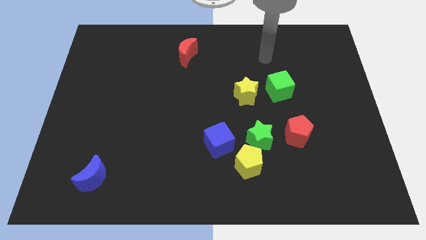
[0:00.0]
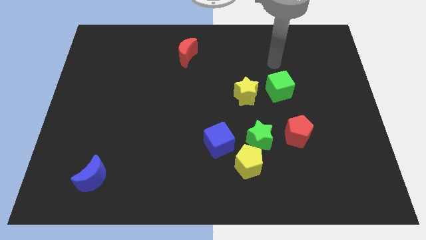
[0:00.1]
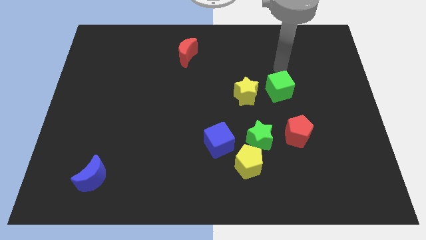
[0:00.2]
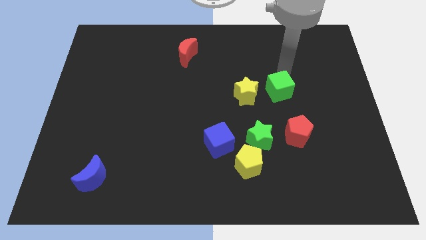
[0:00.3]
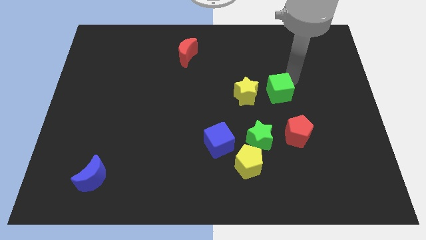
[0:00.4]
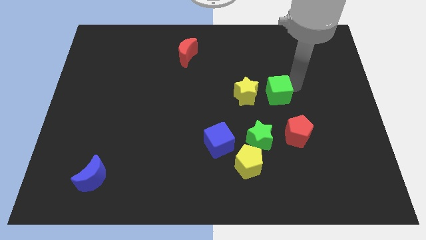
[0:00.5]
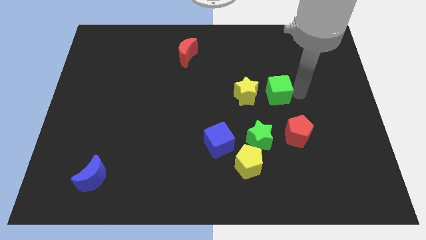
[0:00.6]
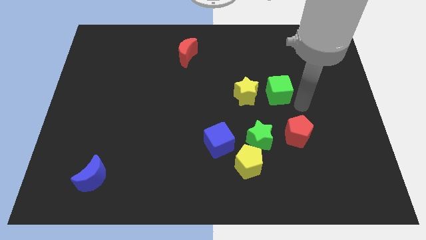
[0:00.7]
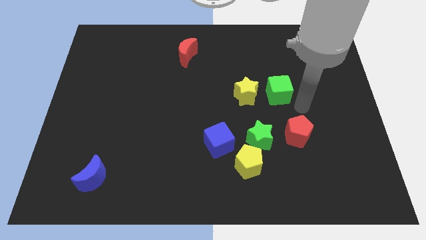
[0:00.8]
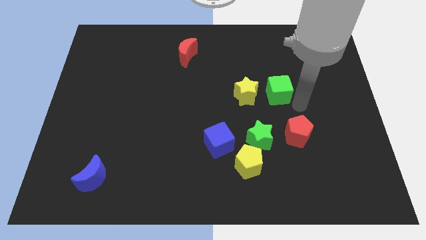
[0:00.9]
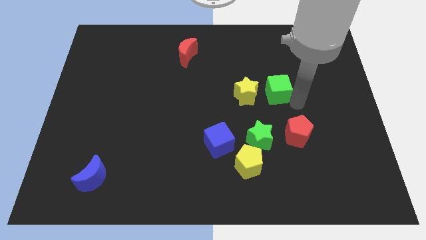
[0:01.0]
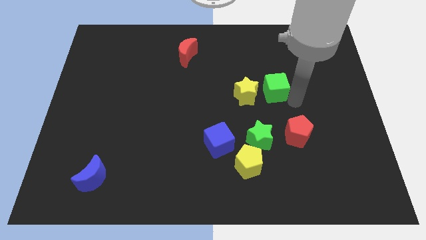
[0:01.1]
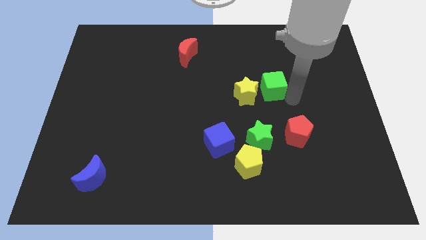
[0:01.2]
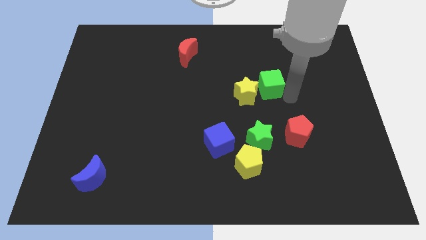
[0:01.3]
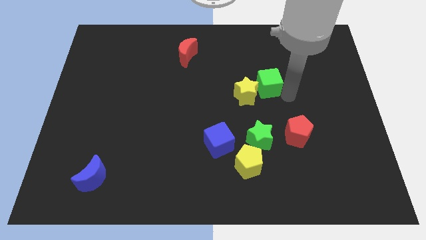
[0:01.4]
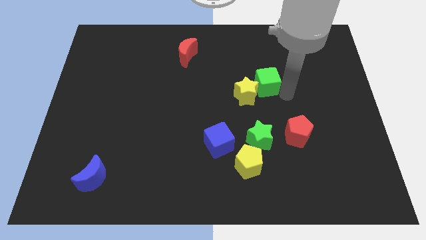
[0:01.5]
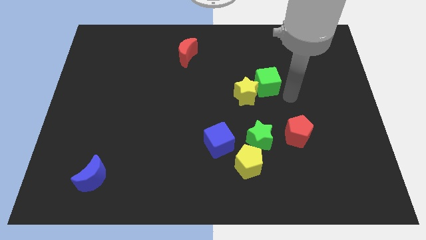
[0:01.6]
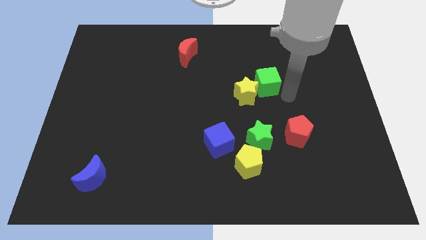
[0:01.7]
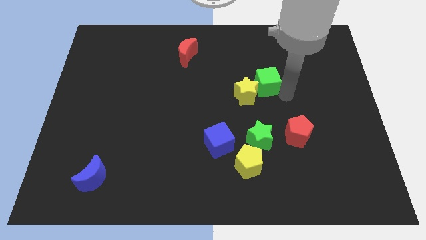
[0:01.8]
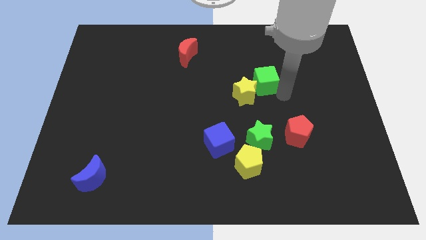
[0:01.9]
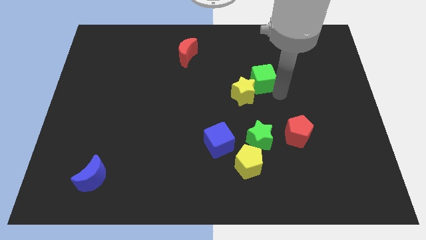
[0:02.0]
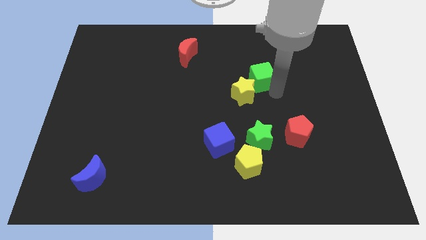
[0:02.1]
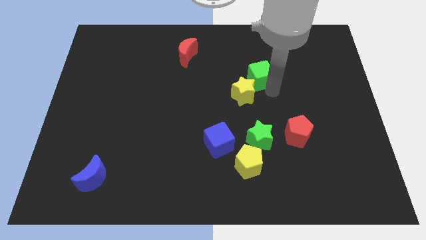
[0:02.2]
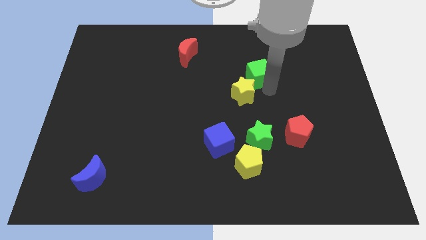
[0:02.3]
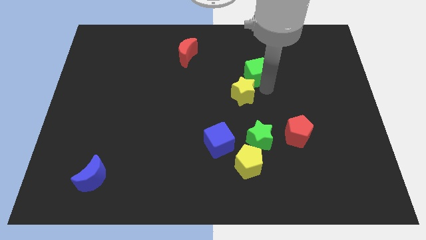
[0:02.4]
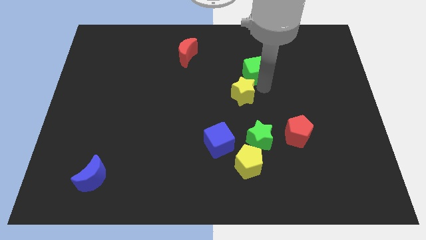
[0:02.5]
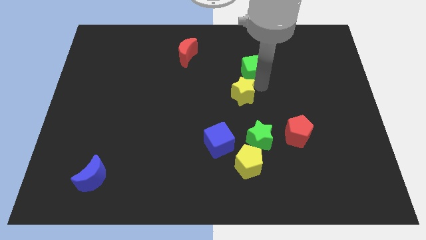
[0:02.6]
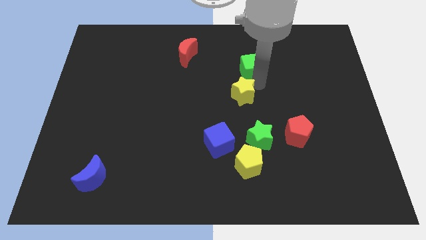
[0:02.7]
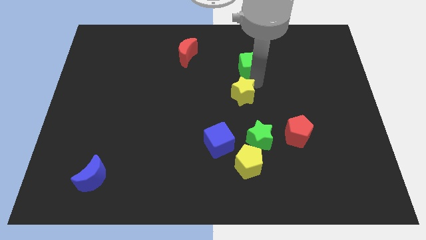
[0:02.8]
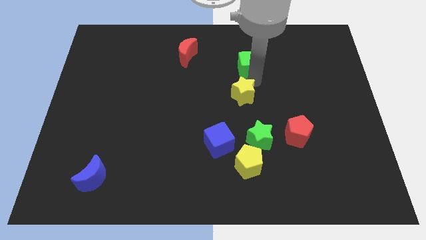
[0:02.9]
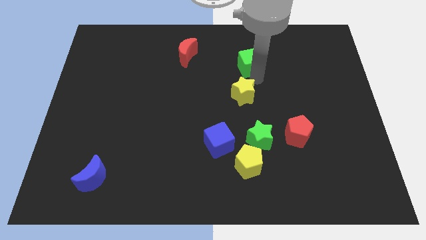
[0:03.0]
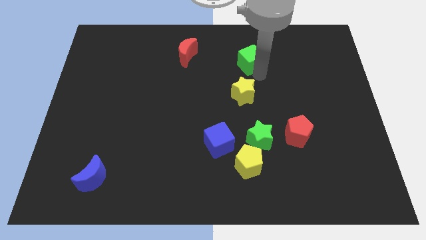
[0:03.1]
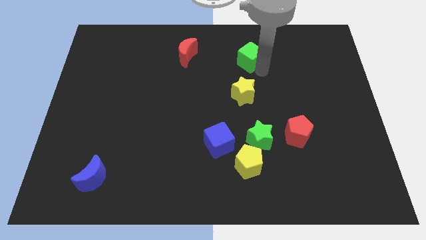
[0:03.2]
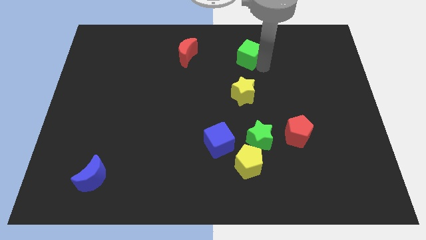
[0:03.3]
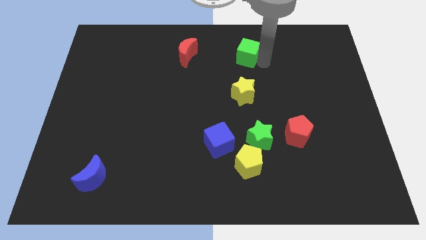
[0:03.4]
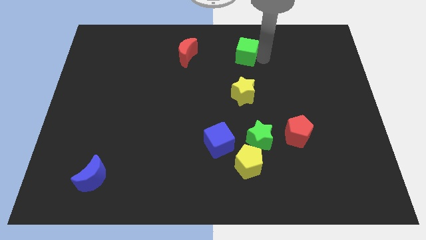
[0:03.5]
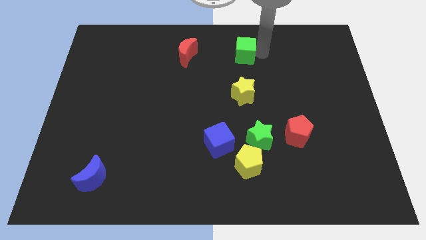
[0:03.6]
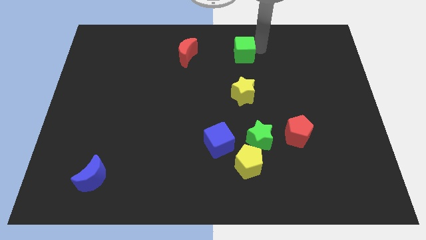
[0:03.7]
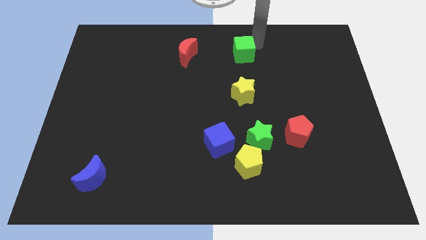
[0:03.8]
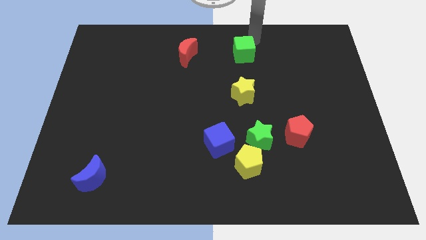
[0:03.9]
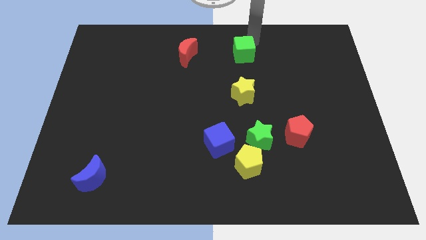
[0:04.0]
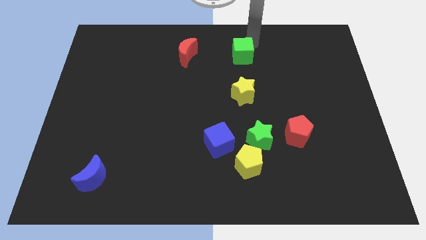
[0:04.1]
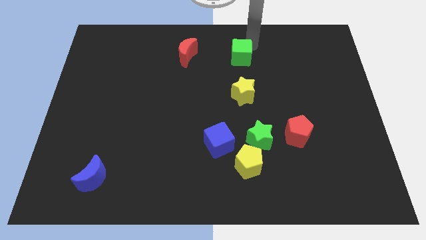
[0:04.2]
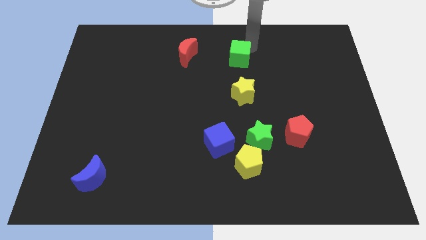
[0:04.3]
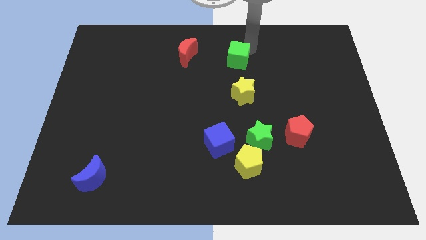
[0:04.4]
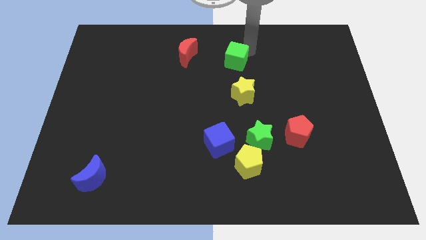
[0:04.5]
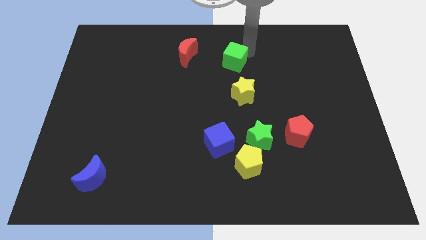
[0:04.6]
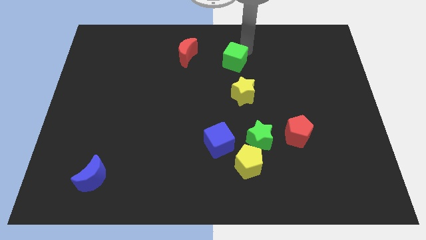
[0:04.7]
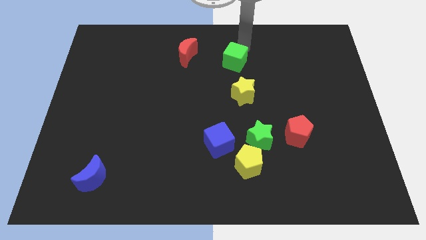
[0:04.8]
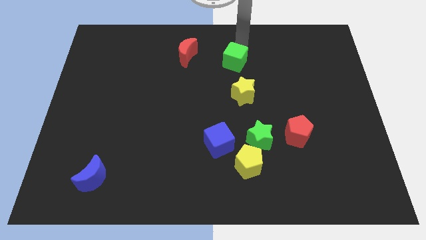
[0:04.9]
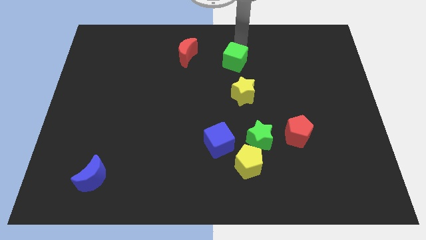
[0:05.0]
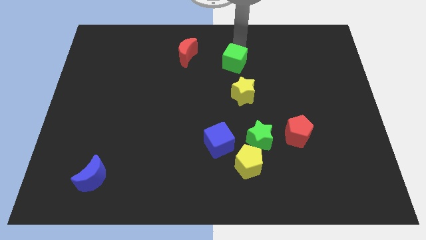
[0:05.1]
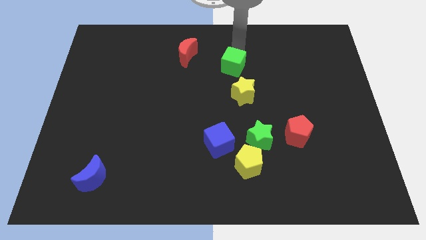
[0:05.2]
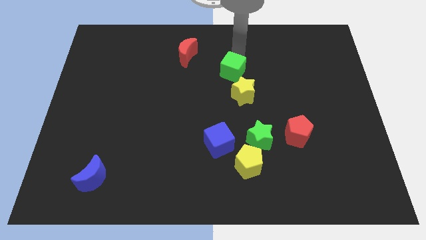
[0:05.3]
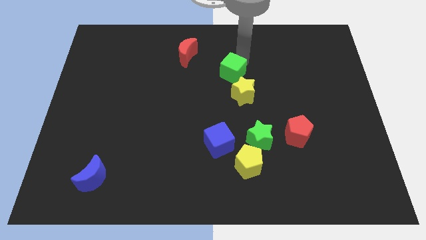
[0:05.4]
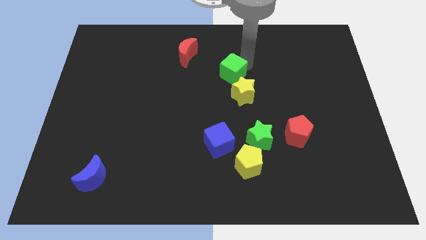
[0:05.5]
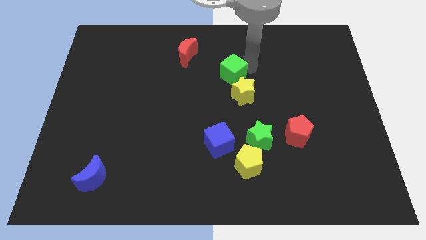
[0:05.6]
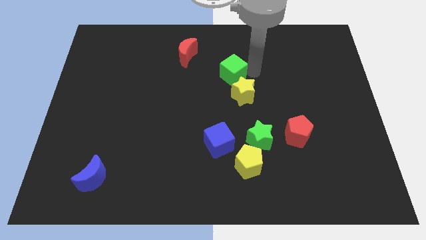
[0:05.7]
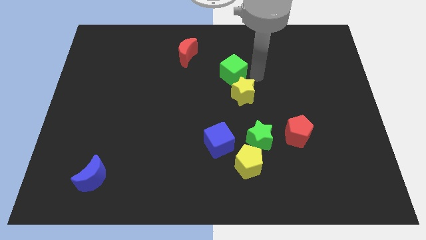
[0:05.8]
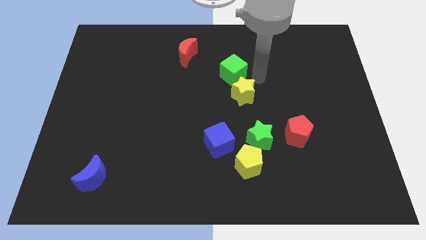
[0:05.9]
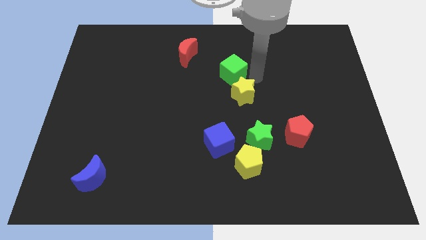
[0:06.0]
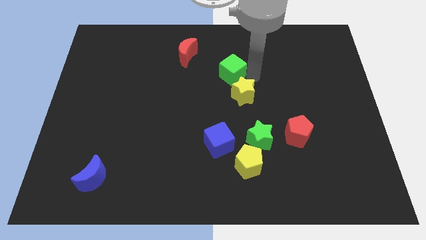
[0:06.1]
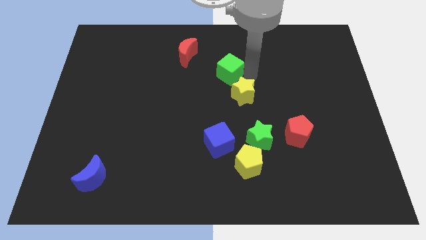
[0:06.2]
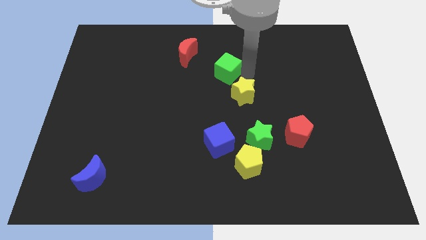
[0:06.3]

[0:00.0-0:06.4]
put the green cube to the bottom right of the red moon

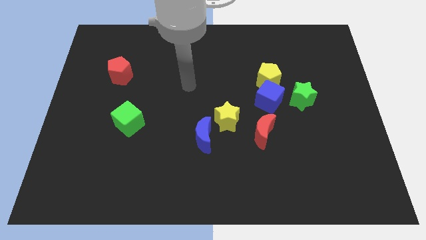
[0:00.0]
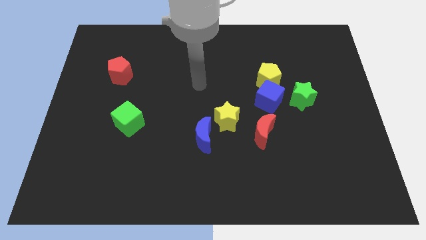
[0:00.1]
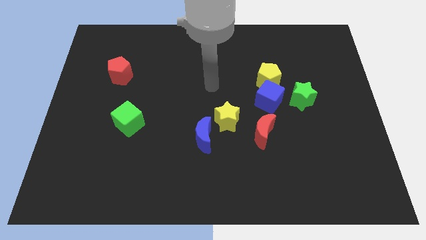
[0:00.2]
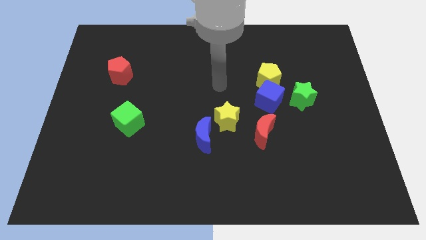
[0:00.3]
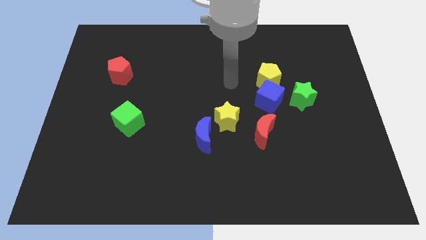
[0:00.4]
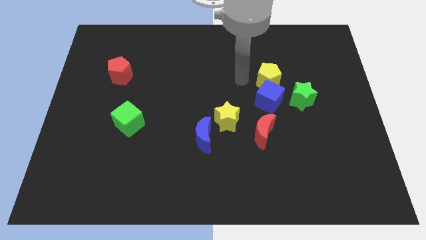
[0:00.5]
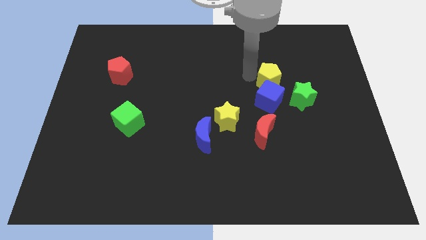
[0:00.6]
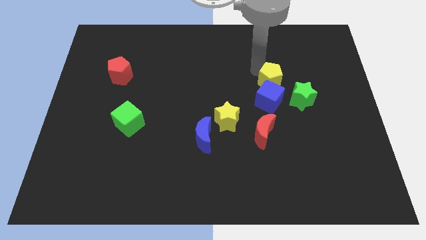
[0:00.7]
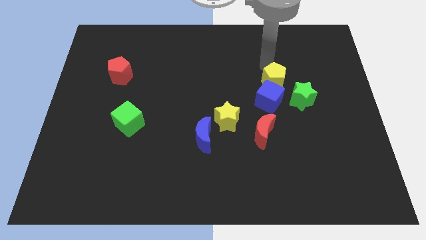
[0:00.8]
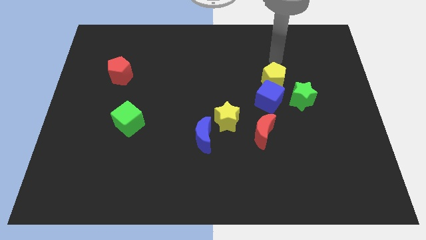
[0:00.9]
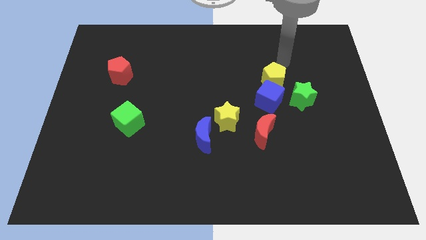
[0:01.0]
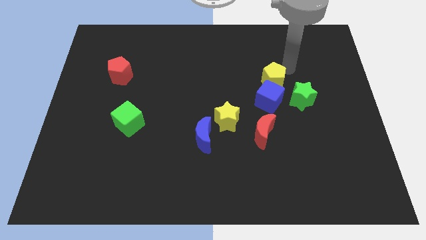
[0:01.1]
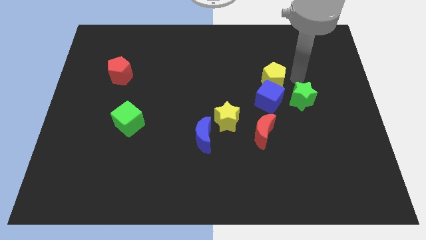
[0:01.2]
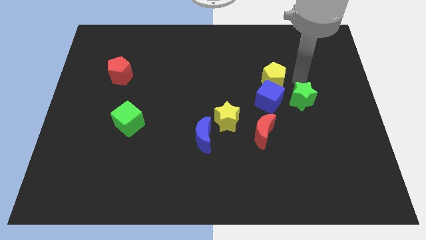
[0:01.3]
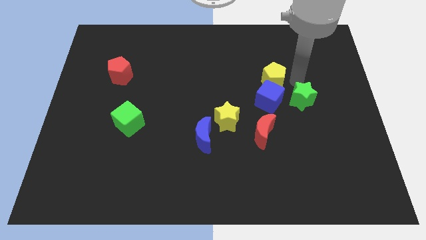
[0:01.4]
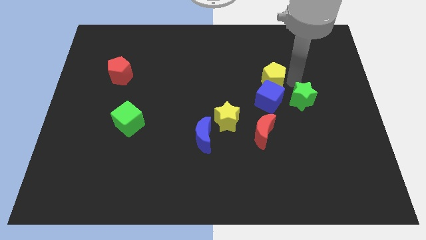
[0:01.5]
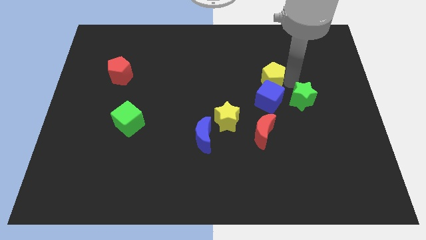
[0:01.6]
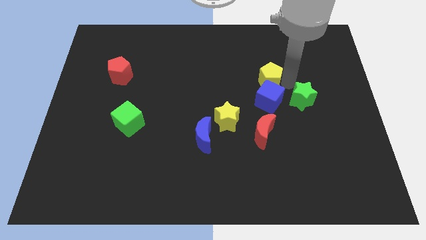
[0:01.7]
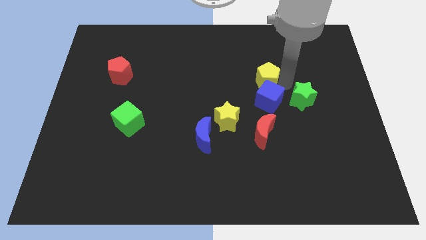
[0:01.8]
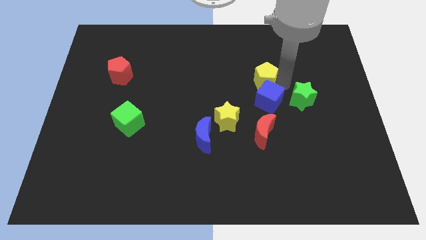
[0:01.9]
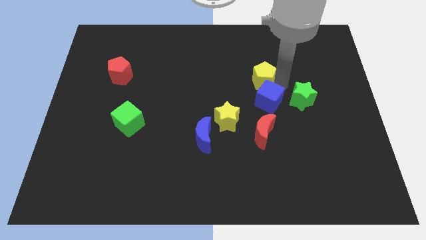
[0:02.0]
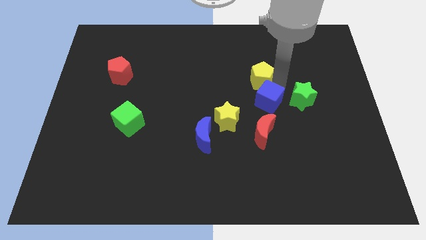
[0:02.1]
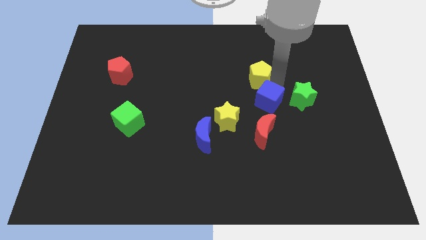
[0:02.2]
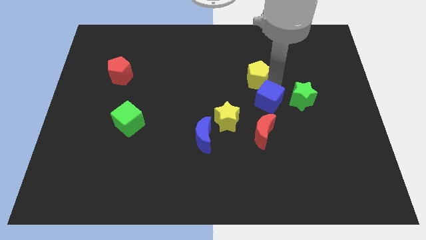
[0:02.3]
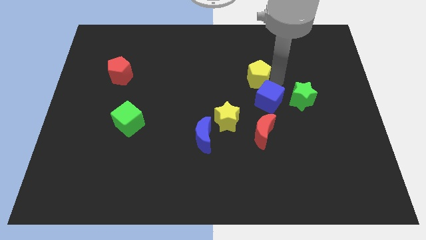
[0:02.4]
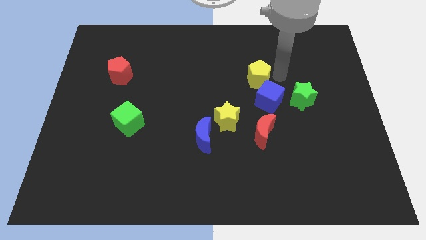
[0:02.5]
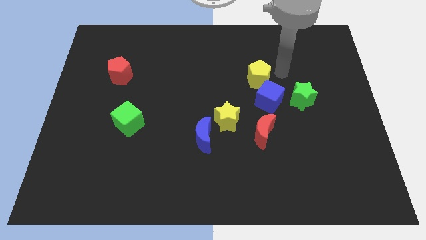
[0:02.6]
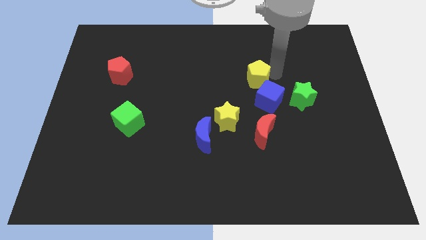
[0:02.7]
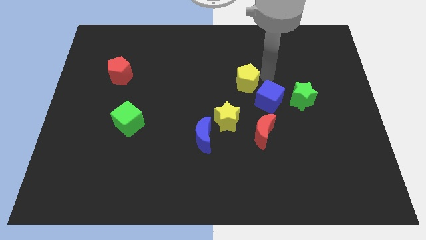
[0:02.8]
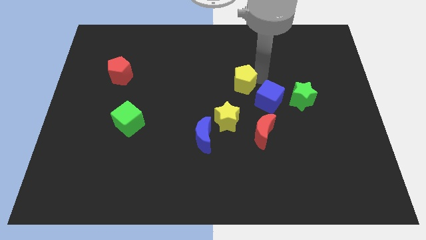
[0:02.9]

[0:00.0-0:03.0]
put the yellow pentagon above the yellow star
